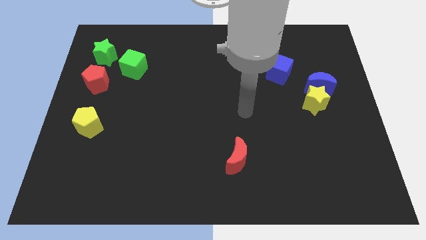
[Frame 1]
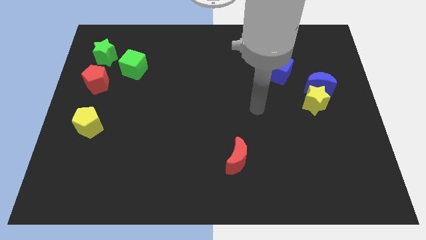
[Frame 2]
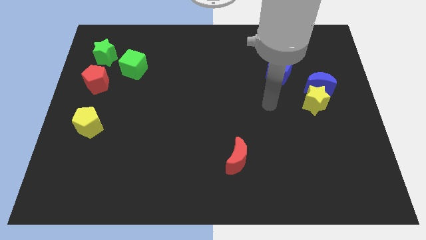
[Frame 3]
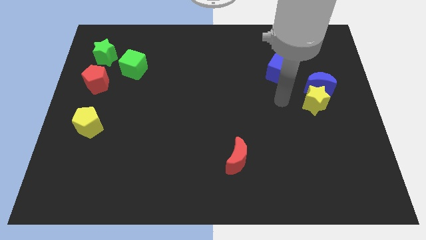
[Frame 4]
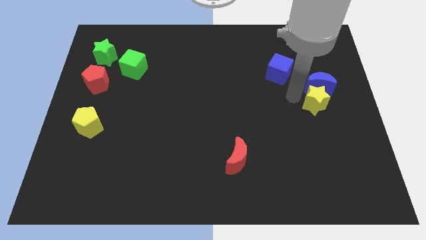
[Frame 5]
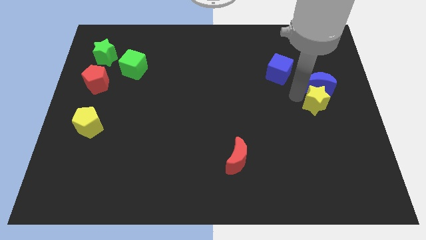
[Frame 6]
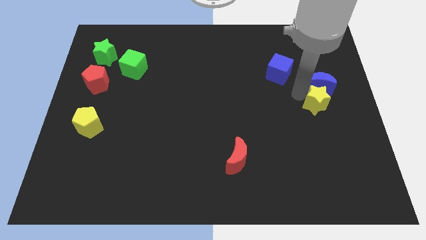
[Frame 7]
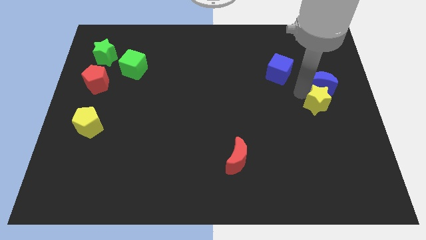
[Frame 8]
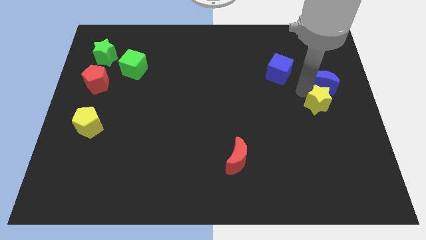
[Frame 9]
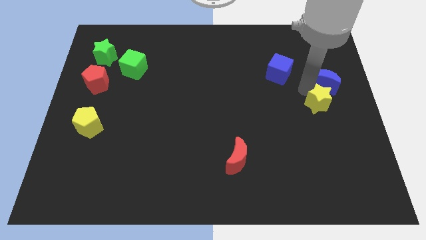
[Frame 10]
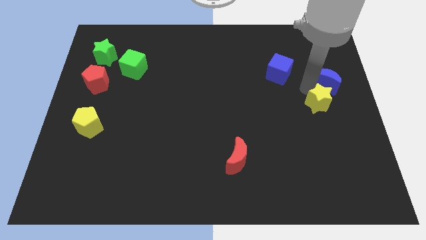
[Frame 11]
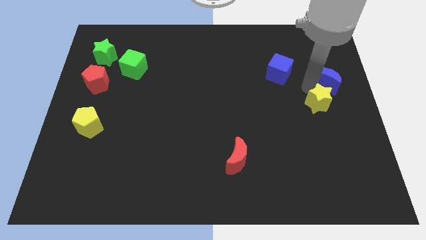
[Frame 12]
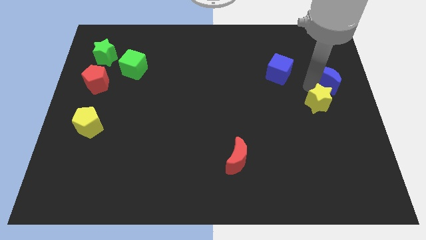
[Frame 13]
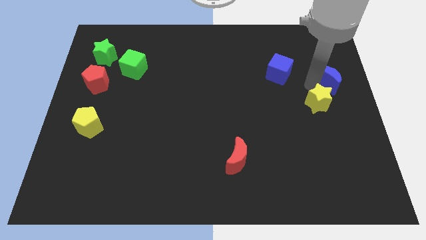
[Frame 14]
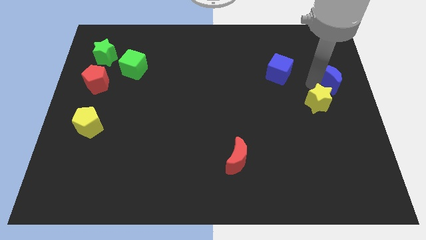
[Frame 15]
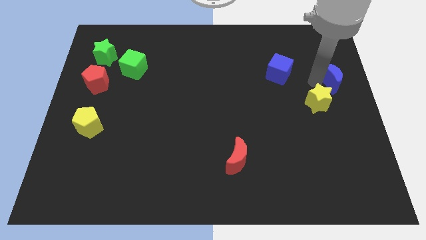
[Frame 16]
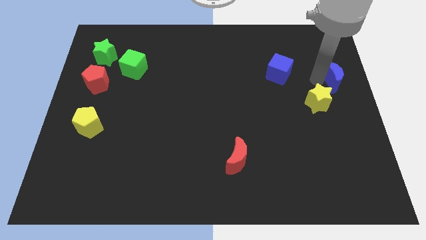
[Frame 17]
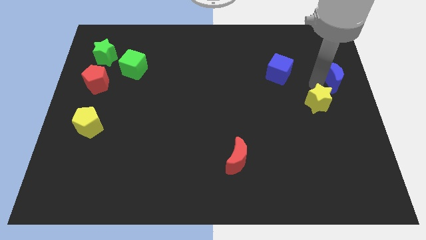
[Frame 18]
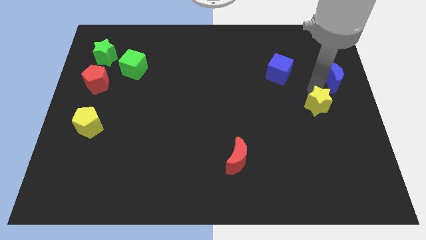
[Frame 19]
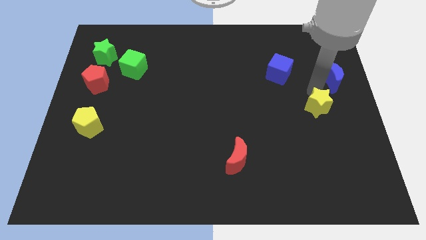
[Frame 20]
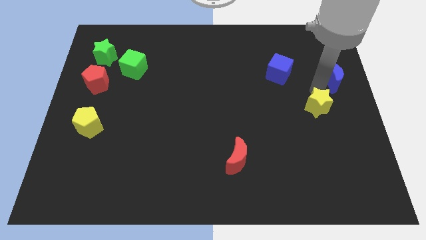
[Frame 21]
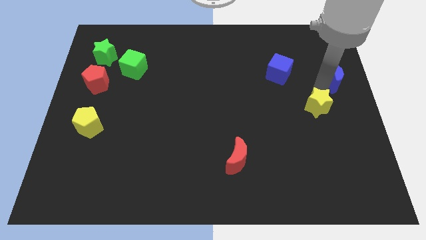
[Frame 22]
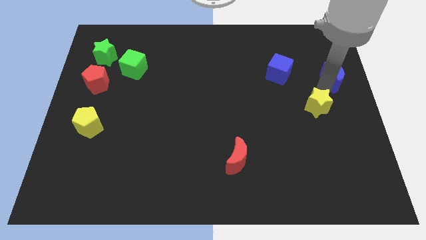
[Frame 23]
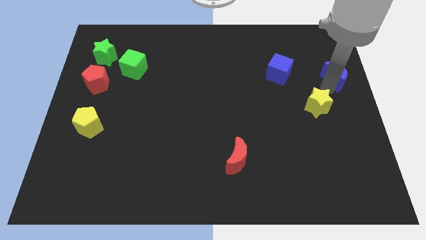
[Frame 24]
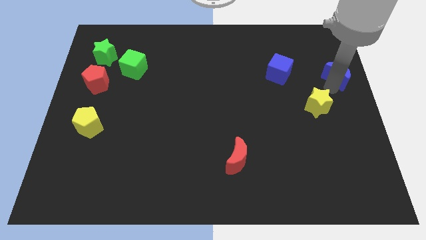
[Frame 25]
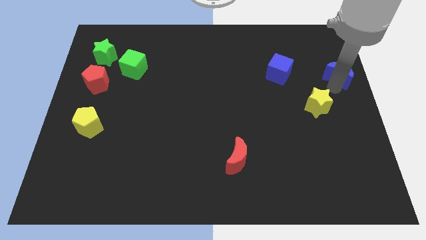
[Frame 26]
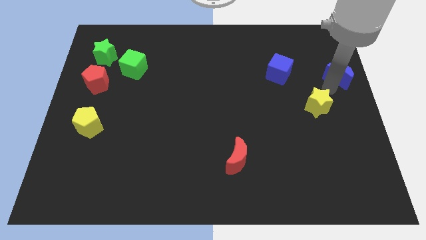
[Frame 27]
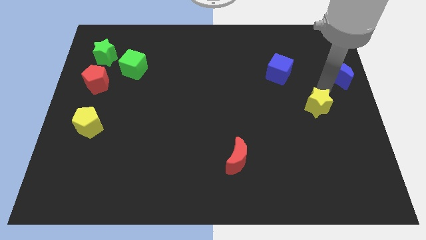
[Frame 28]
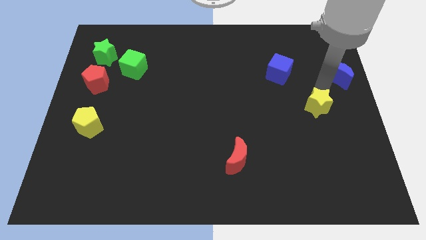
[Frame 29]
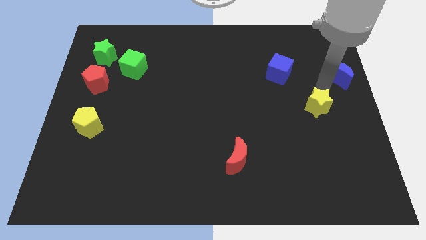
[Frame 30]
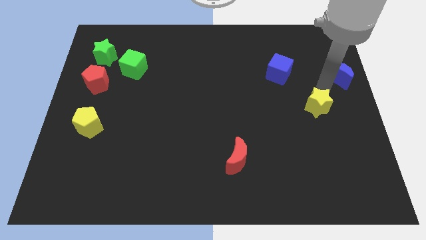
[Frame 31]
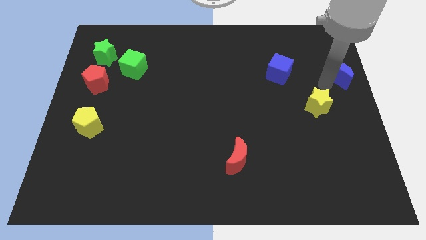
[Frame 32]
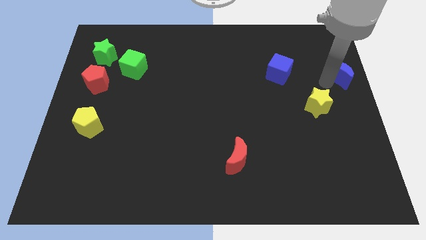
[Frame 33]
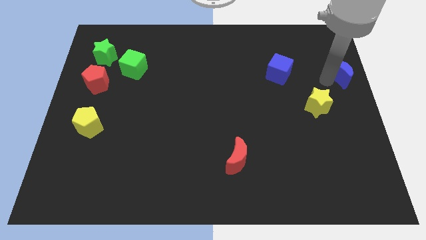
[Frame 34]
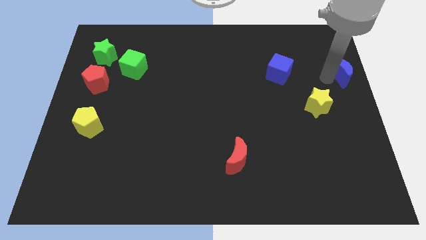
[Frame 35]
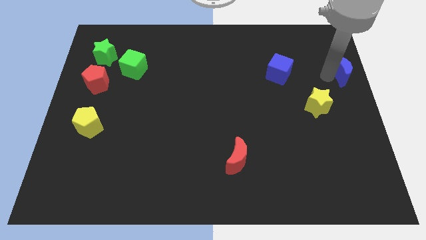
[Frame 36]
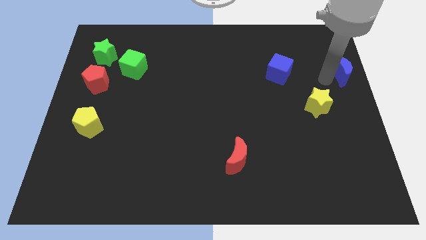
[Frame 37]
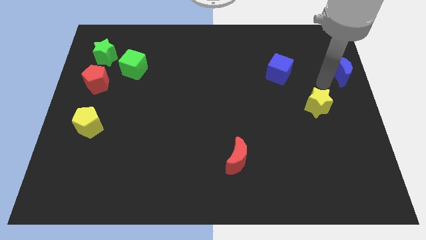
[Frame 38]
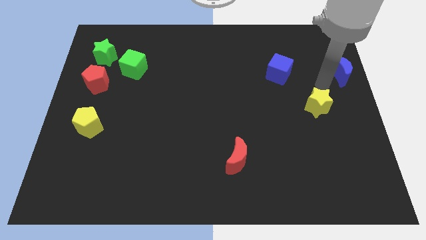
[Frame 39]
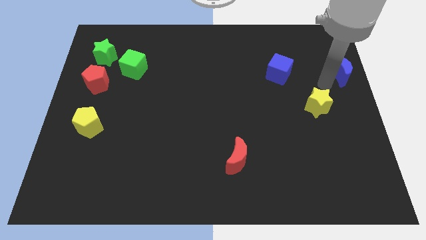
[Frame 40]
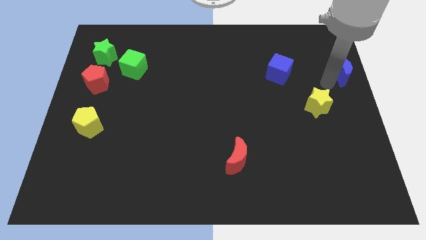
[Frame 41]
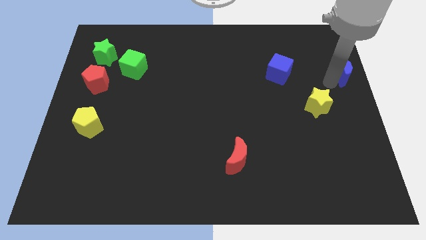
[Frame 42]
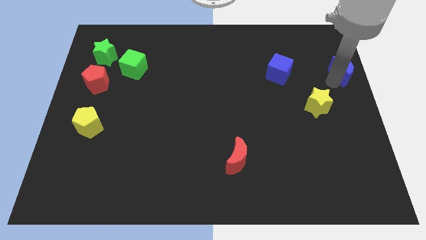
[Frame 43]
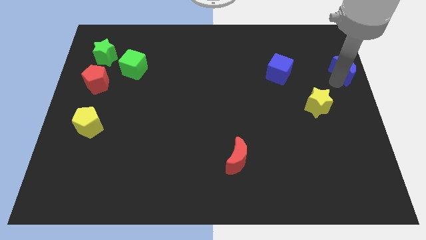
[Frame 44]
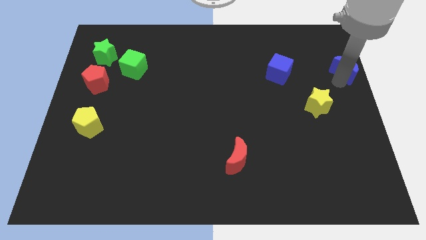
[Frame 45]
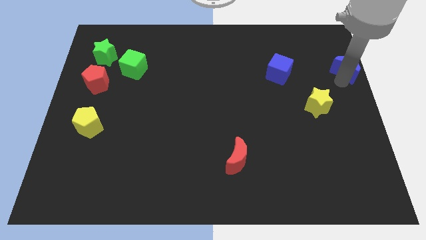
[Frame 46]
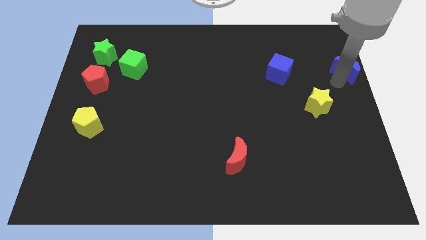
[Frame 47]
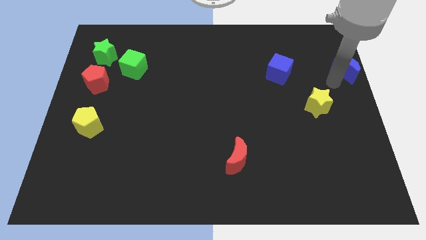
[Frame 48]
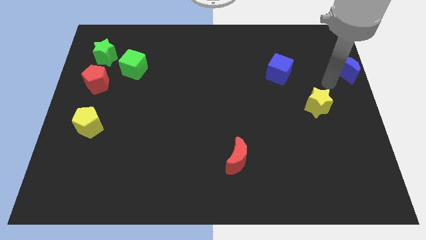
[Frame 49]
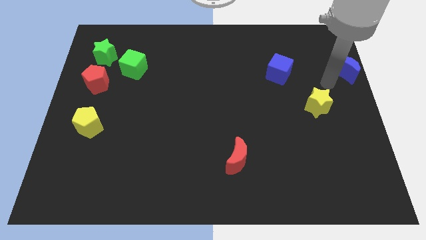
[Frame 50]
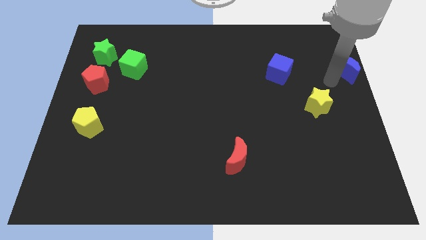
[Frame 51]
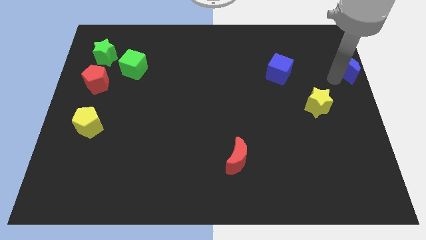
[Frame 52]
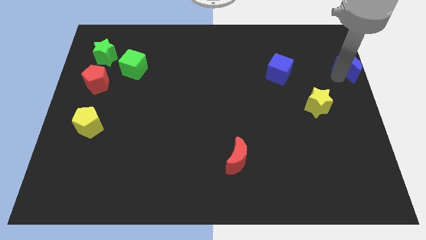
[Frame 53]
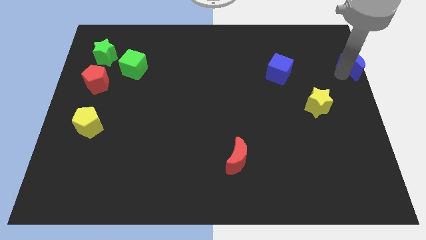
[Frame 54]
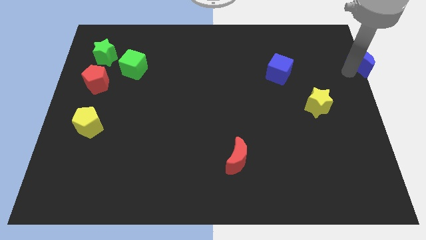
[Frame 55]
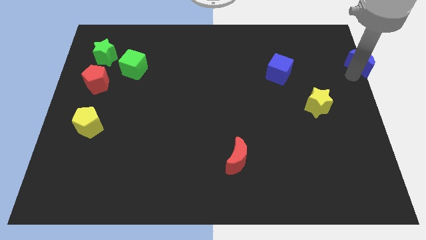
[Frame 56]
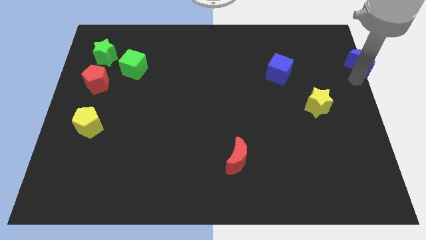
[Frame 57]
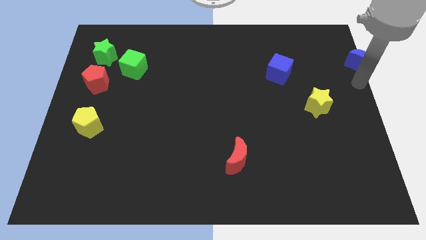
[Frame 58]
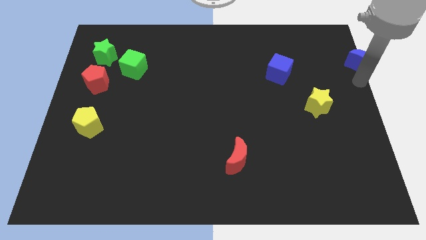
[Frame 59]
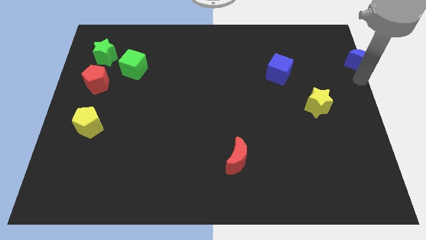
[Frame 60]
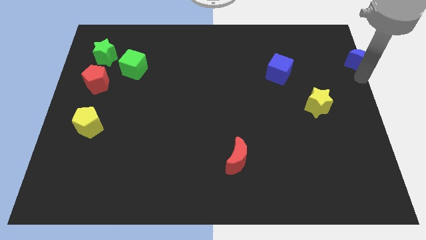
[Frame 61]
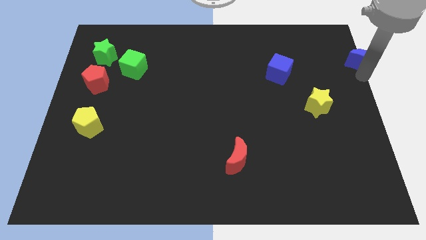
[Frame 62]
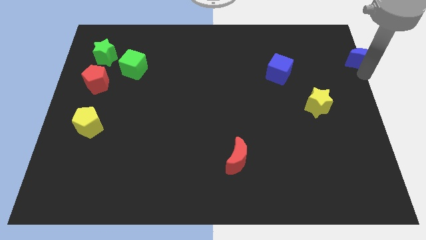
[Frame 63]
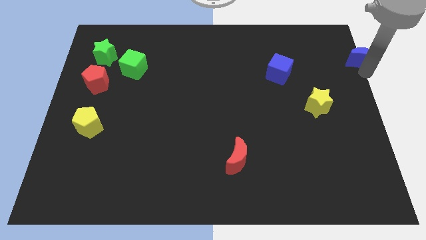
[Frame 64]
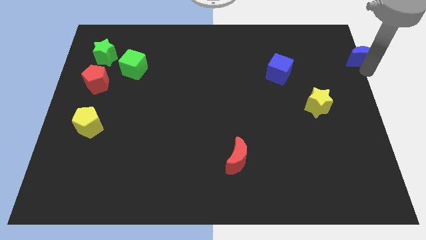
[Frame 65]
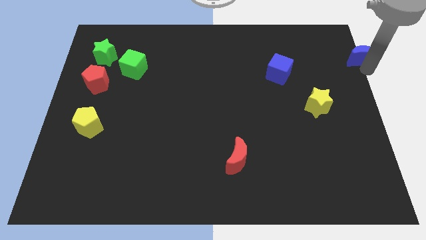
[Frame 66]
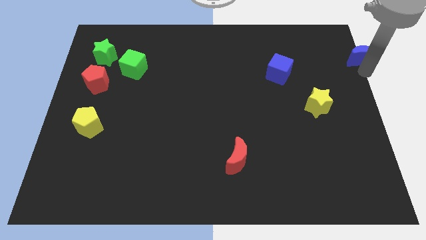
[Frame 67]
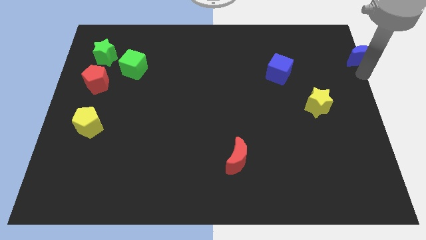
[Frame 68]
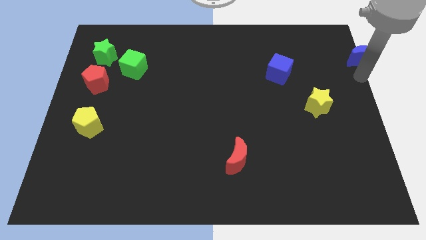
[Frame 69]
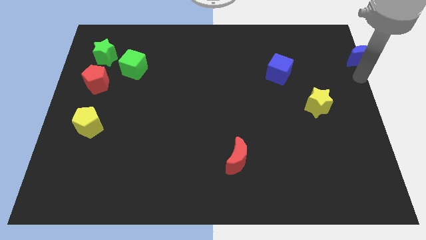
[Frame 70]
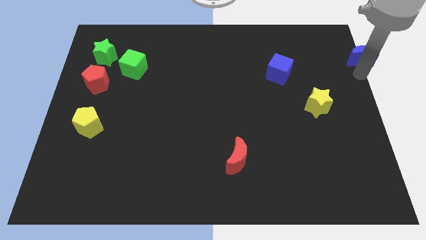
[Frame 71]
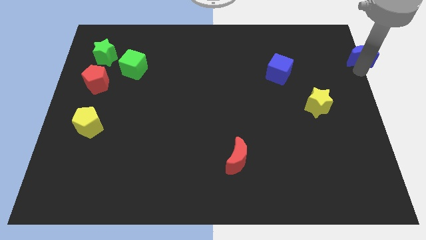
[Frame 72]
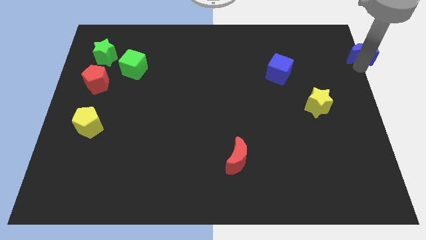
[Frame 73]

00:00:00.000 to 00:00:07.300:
push the blue moon to the top right corner
